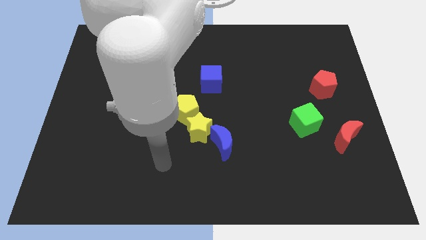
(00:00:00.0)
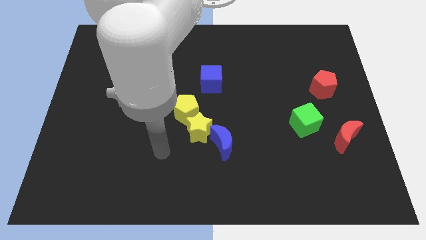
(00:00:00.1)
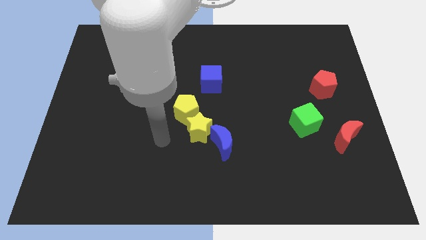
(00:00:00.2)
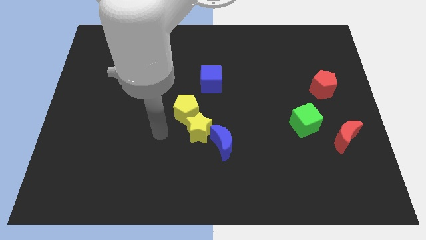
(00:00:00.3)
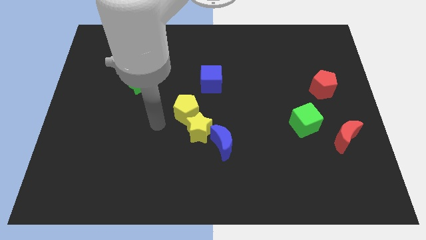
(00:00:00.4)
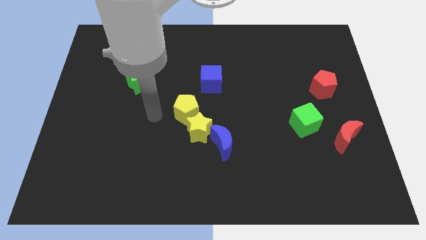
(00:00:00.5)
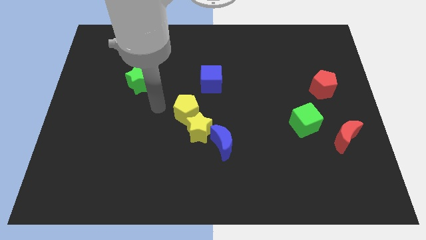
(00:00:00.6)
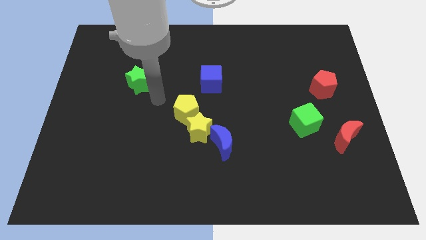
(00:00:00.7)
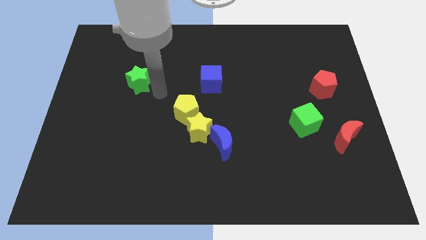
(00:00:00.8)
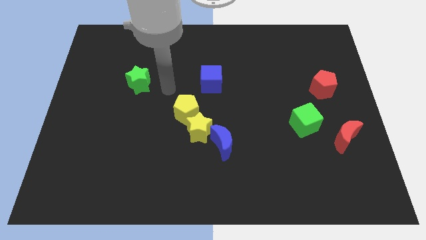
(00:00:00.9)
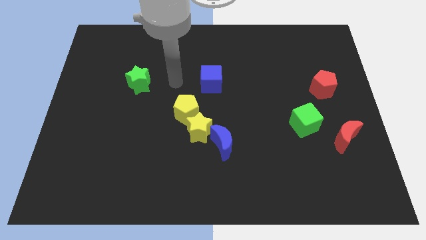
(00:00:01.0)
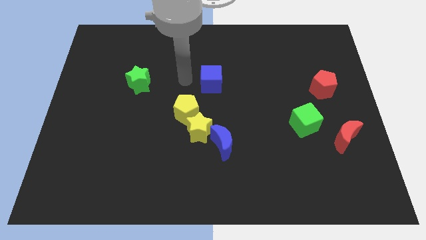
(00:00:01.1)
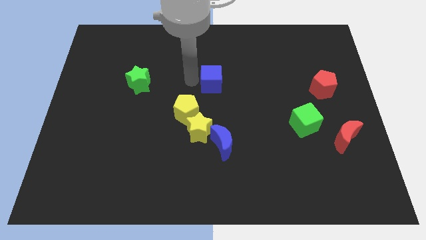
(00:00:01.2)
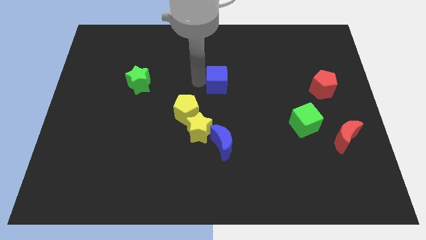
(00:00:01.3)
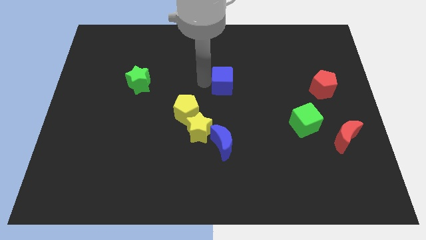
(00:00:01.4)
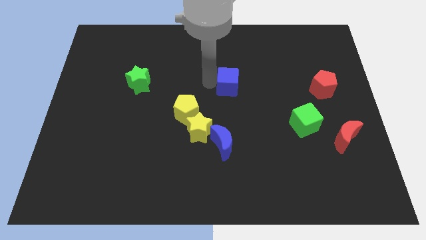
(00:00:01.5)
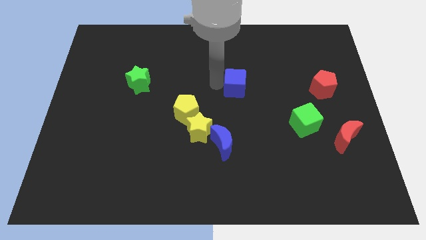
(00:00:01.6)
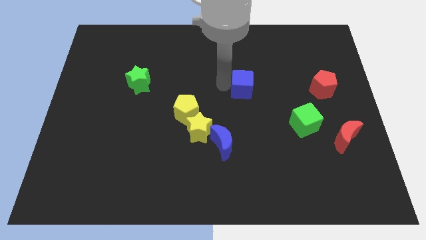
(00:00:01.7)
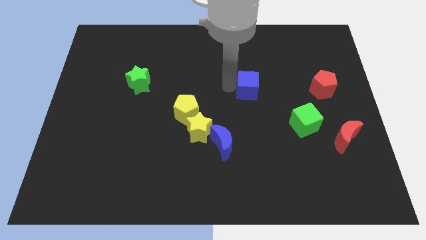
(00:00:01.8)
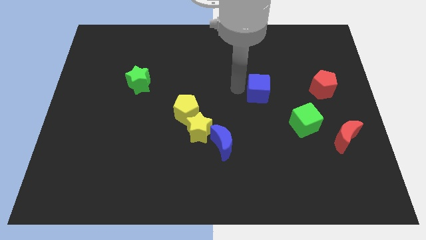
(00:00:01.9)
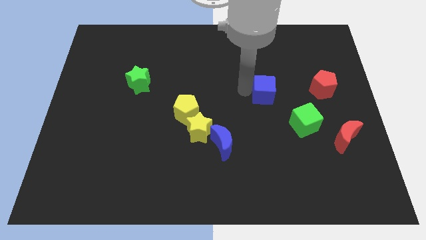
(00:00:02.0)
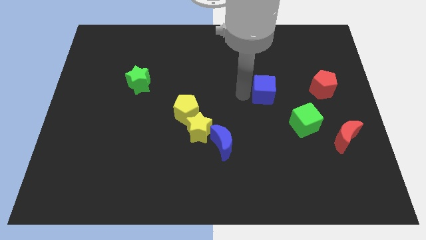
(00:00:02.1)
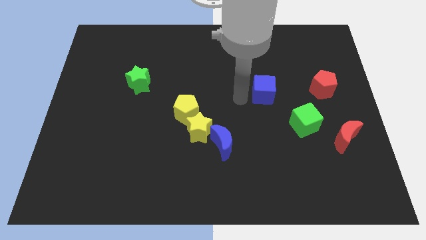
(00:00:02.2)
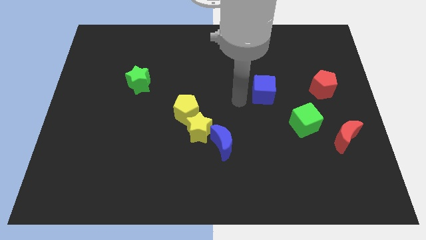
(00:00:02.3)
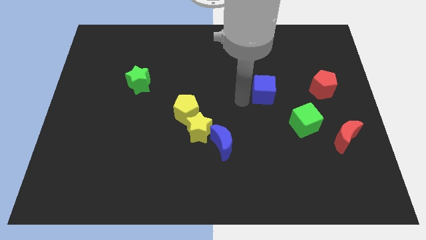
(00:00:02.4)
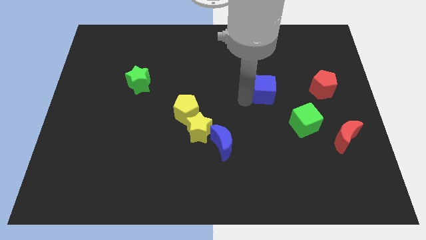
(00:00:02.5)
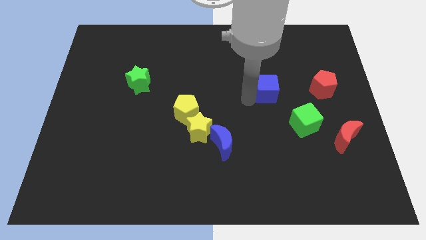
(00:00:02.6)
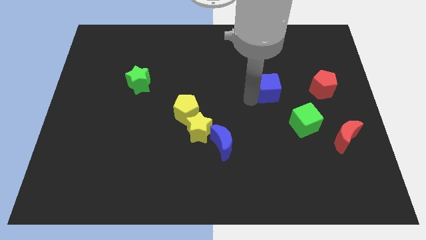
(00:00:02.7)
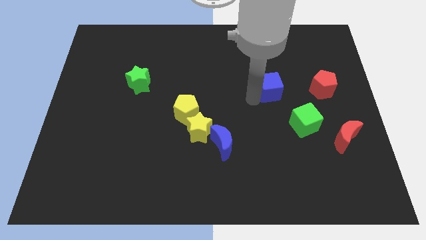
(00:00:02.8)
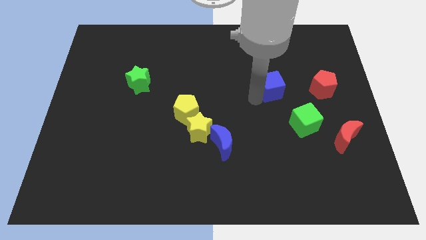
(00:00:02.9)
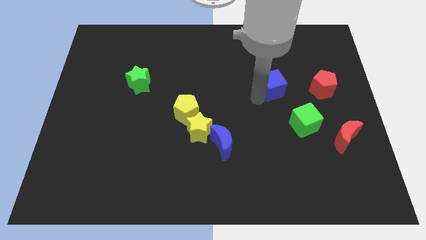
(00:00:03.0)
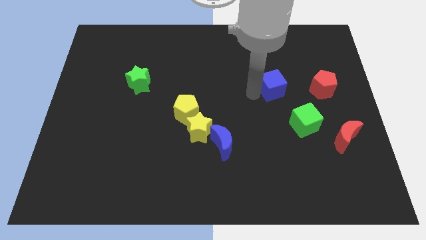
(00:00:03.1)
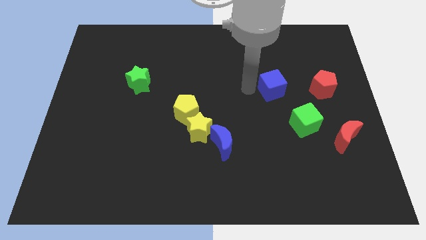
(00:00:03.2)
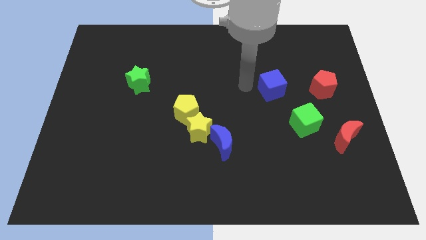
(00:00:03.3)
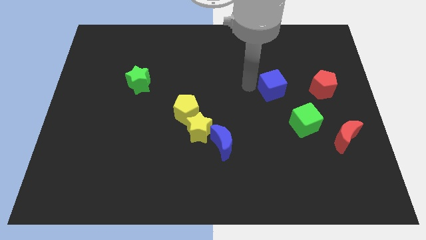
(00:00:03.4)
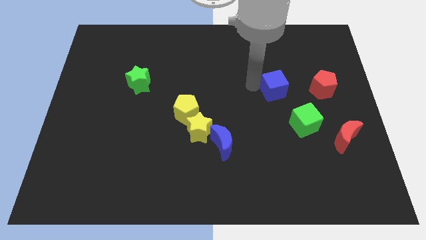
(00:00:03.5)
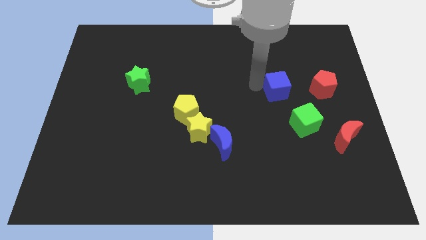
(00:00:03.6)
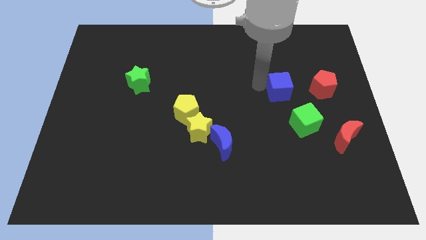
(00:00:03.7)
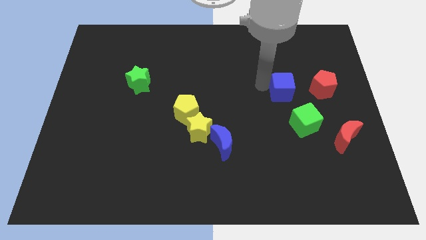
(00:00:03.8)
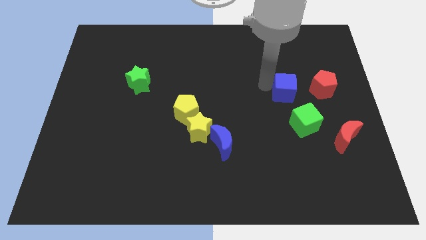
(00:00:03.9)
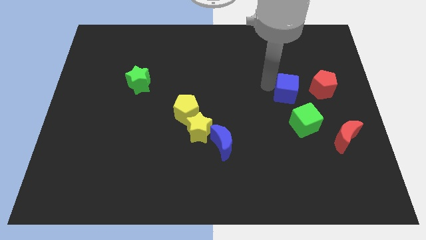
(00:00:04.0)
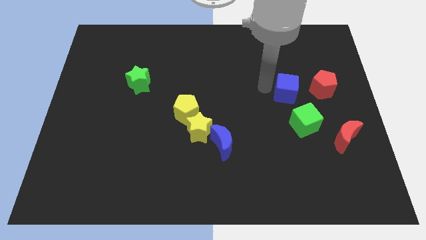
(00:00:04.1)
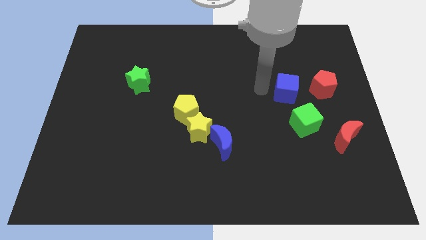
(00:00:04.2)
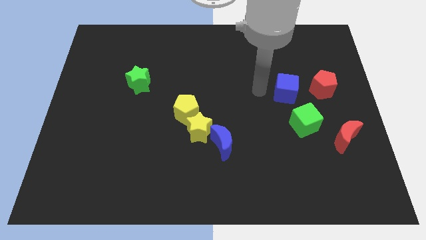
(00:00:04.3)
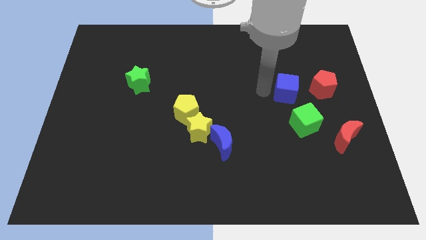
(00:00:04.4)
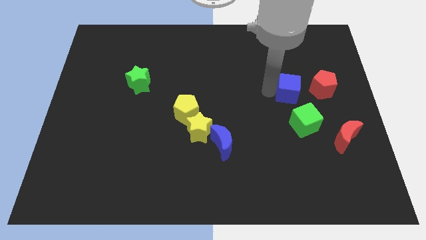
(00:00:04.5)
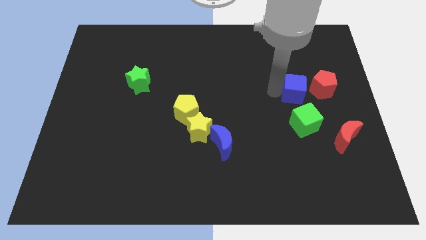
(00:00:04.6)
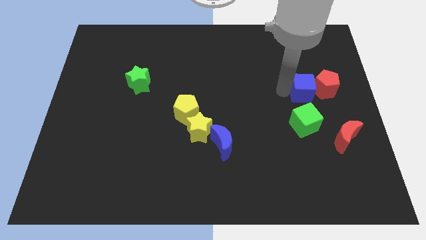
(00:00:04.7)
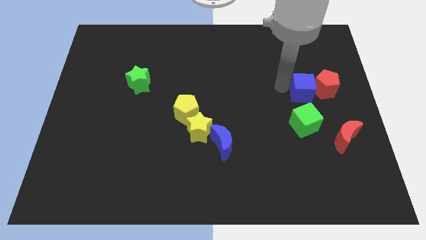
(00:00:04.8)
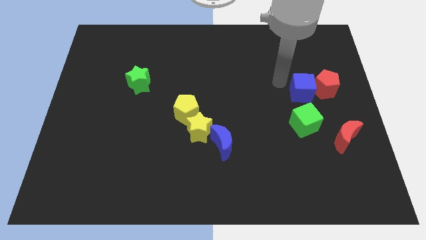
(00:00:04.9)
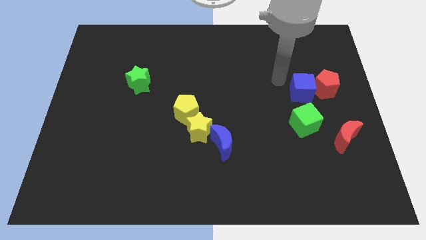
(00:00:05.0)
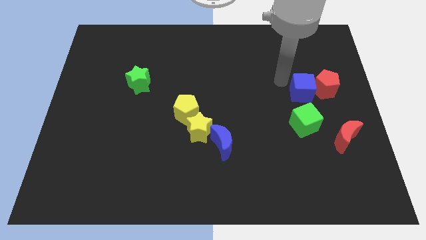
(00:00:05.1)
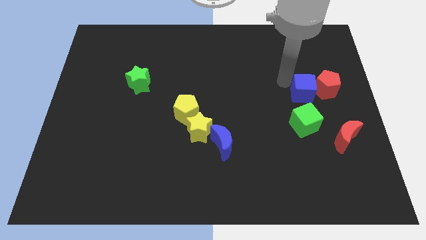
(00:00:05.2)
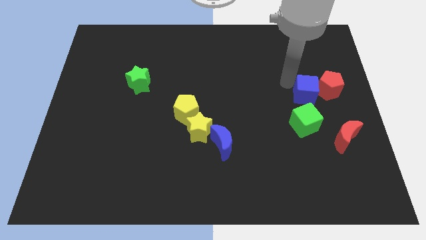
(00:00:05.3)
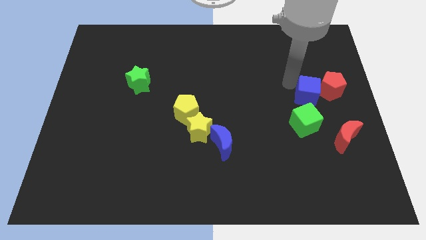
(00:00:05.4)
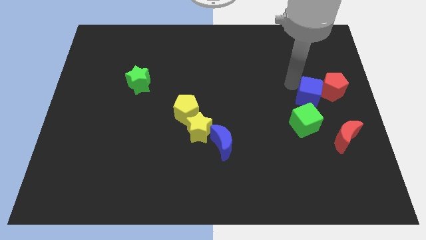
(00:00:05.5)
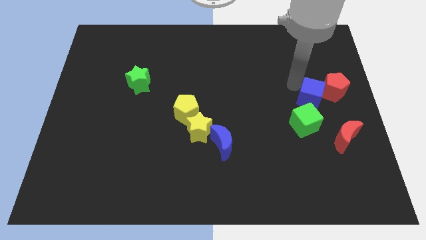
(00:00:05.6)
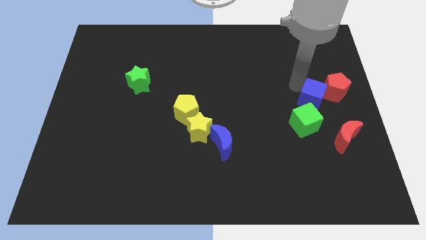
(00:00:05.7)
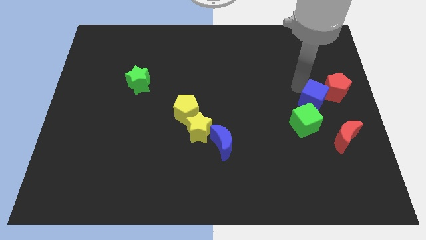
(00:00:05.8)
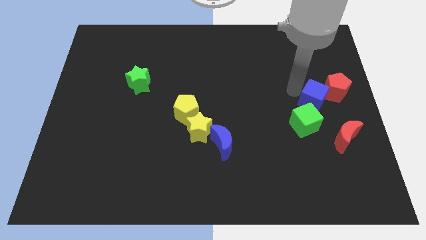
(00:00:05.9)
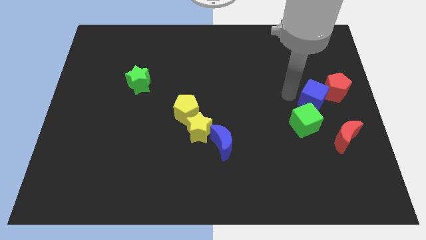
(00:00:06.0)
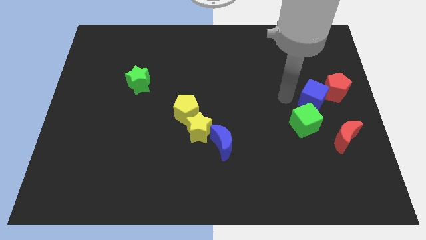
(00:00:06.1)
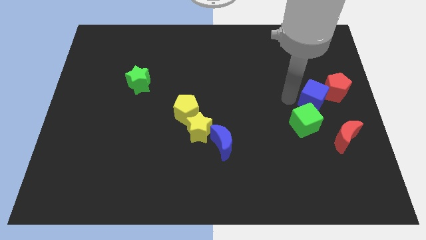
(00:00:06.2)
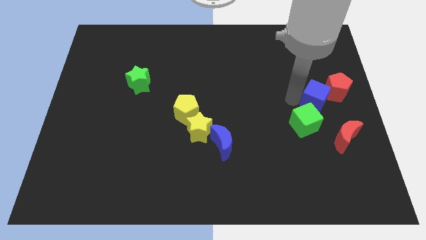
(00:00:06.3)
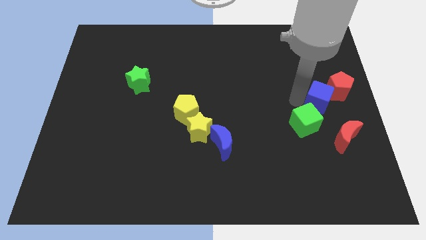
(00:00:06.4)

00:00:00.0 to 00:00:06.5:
push the blue cube to the right side of the board

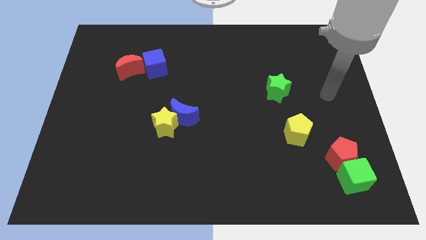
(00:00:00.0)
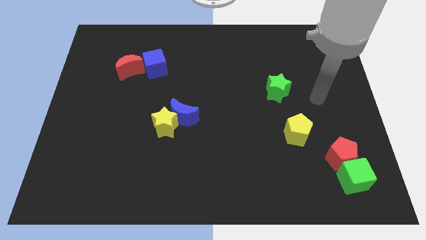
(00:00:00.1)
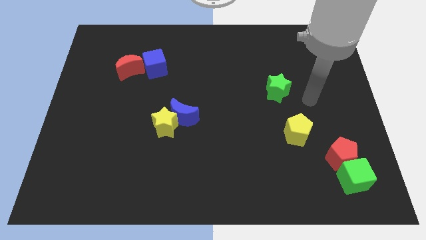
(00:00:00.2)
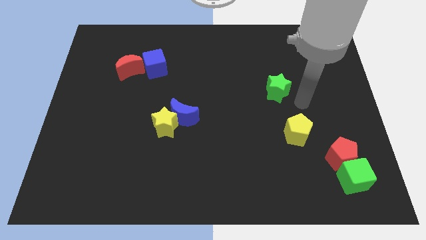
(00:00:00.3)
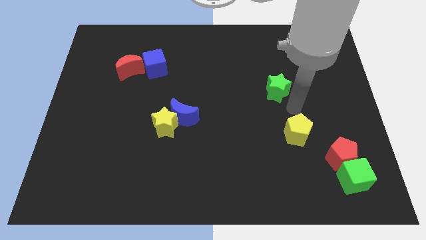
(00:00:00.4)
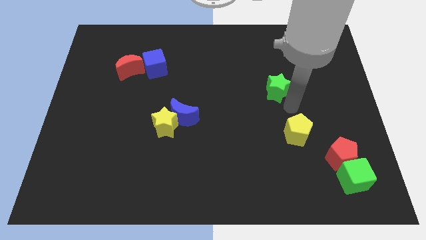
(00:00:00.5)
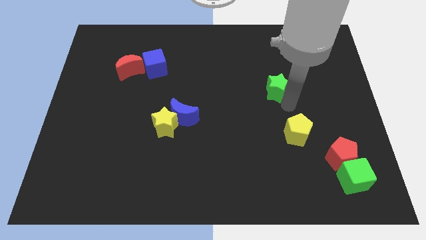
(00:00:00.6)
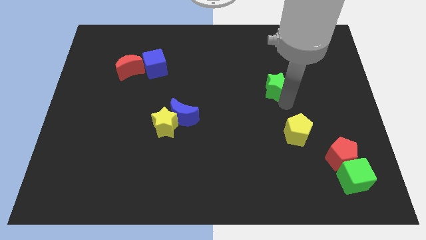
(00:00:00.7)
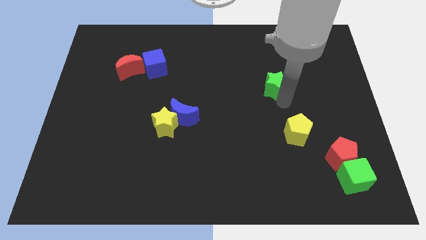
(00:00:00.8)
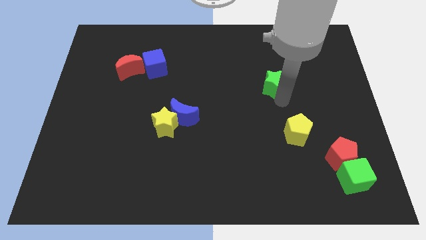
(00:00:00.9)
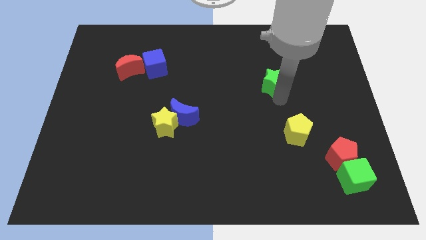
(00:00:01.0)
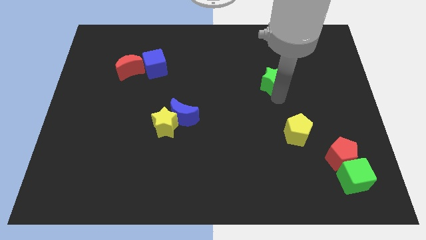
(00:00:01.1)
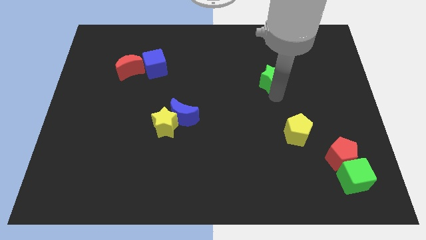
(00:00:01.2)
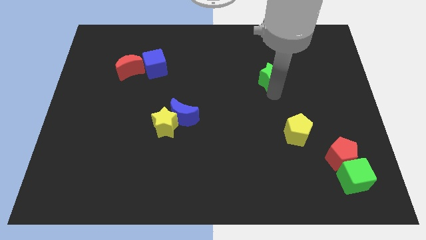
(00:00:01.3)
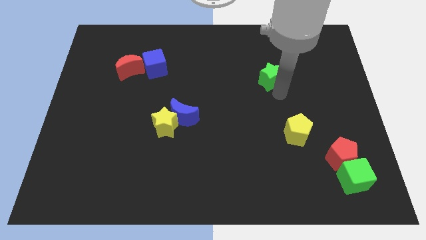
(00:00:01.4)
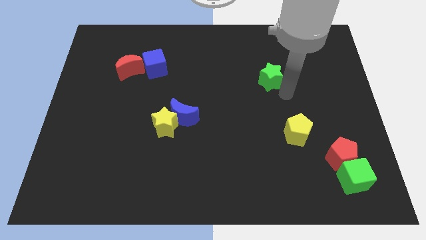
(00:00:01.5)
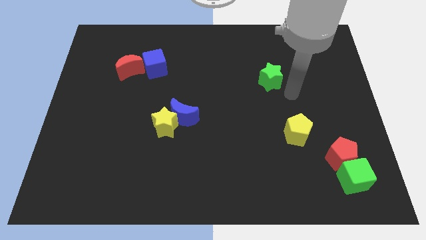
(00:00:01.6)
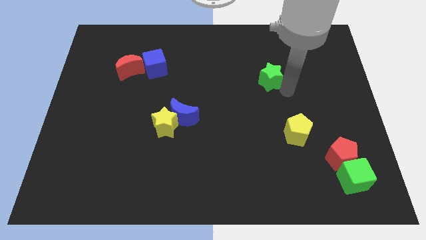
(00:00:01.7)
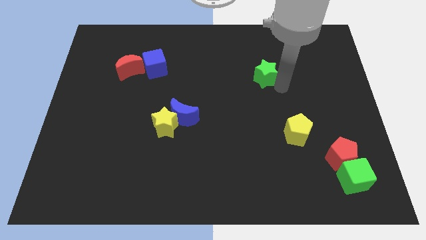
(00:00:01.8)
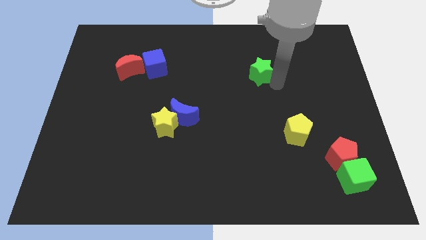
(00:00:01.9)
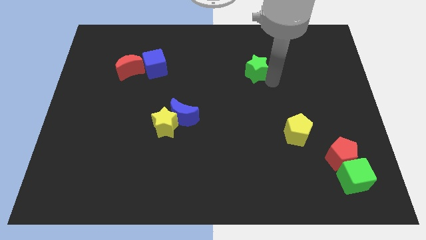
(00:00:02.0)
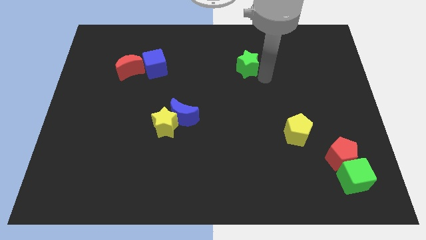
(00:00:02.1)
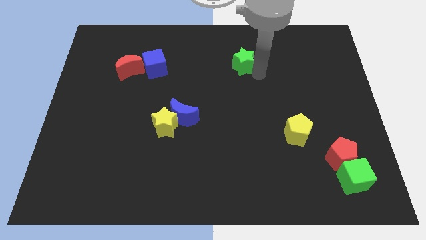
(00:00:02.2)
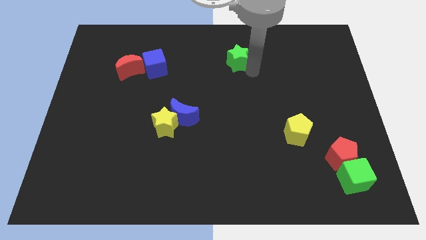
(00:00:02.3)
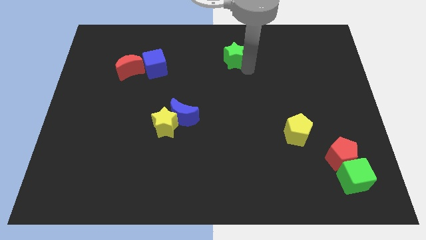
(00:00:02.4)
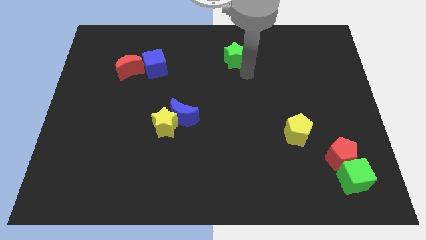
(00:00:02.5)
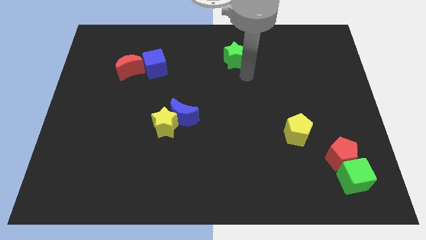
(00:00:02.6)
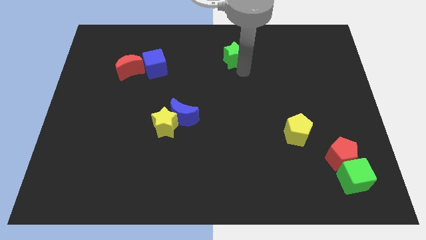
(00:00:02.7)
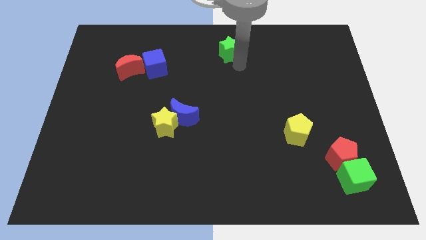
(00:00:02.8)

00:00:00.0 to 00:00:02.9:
put the green star to the towards your base
